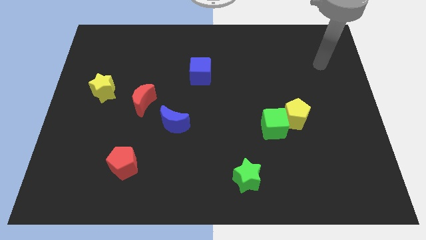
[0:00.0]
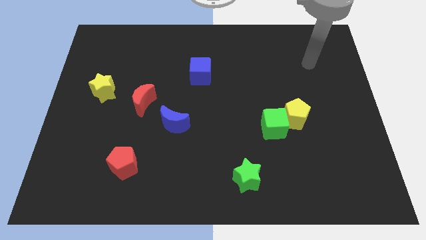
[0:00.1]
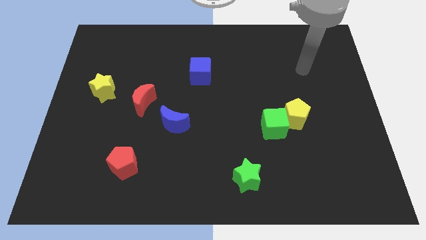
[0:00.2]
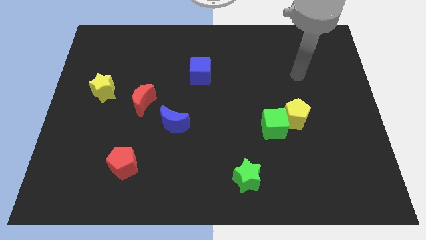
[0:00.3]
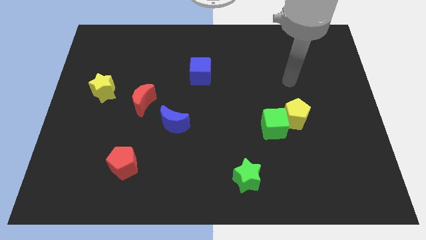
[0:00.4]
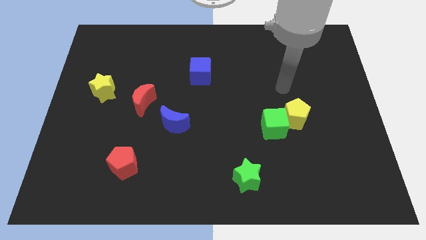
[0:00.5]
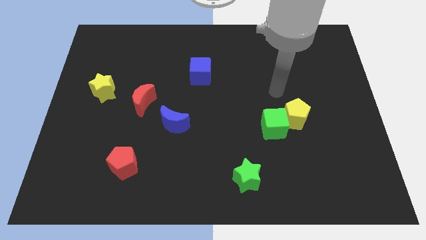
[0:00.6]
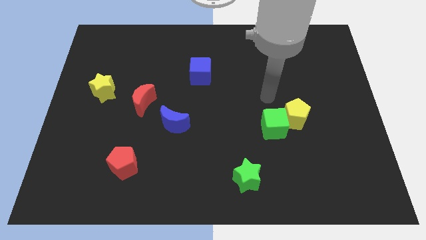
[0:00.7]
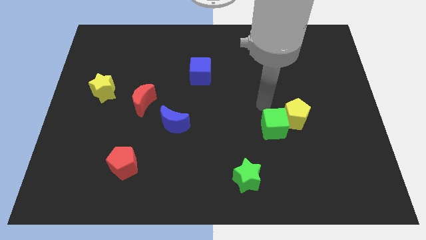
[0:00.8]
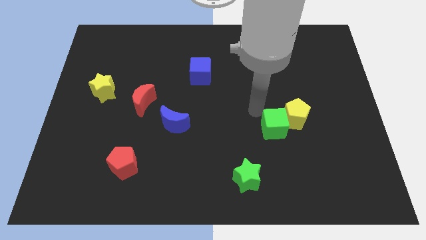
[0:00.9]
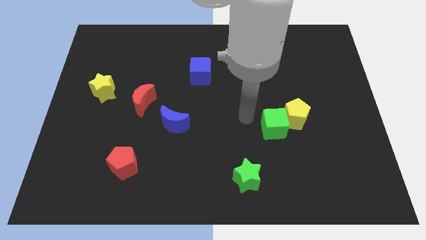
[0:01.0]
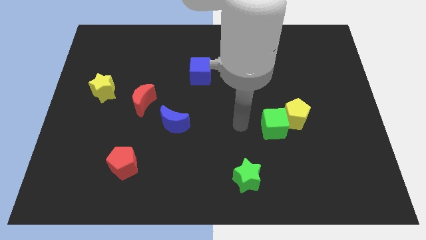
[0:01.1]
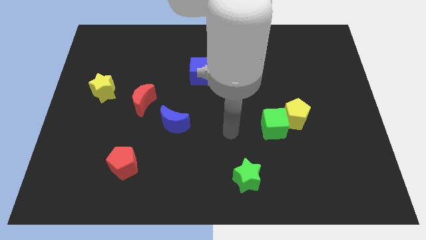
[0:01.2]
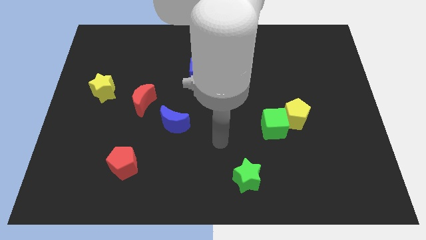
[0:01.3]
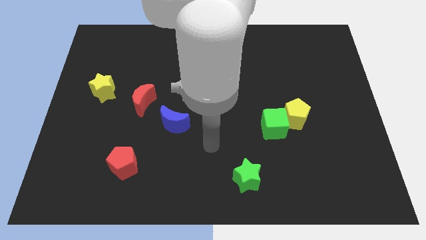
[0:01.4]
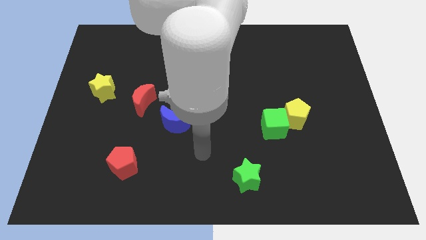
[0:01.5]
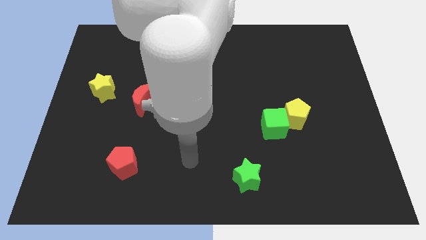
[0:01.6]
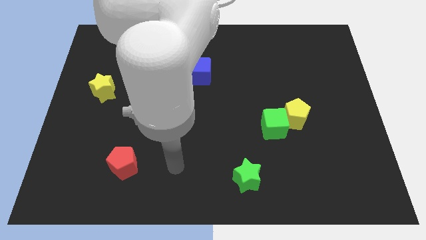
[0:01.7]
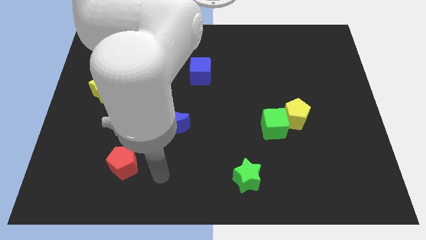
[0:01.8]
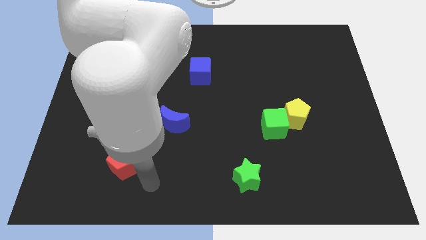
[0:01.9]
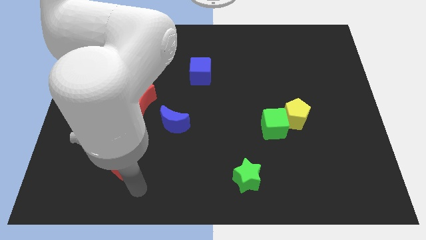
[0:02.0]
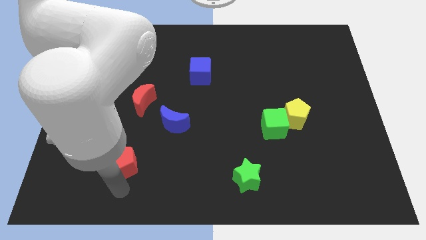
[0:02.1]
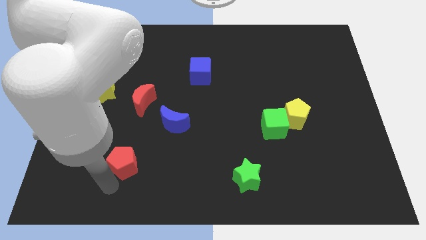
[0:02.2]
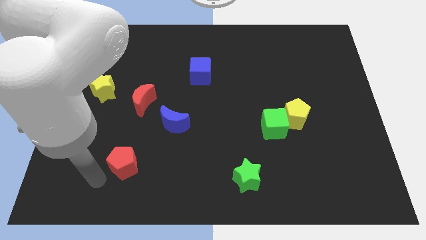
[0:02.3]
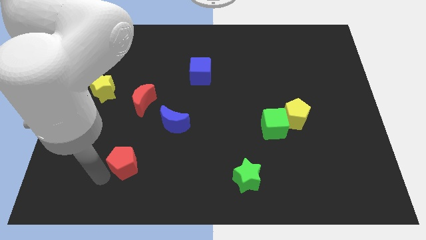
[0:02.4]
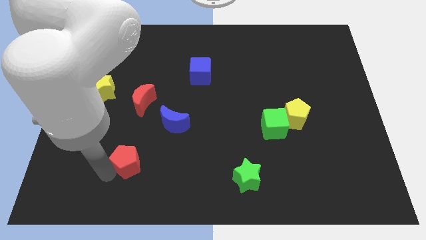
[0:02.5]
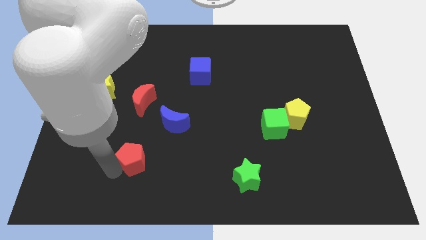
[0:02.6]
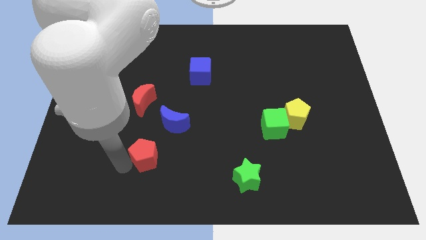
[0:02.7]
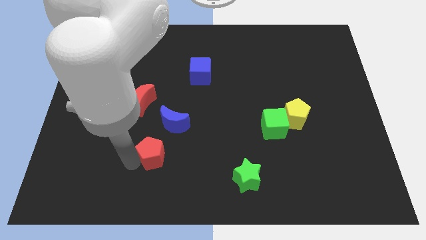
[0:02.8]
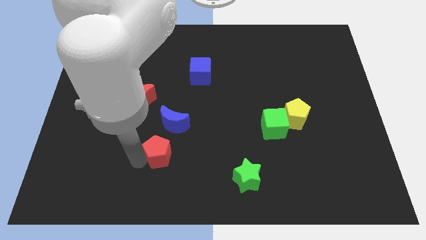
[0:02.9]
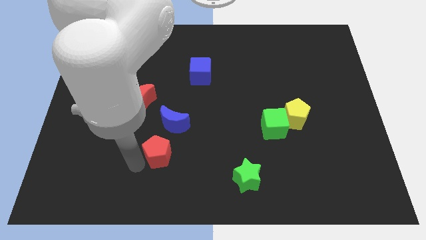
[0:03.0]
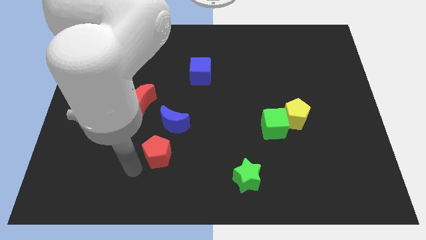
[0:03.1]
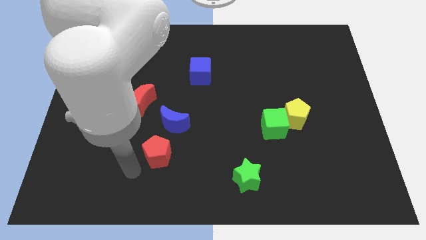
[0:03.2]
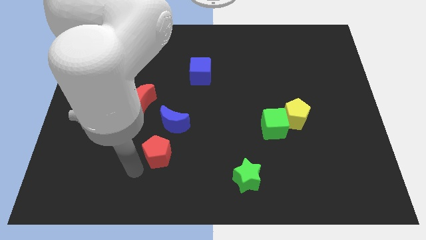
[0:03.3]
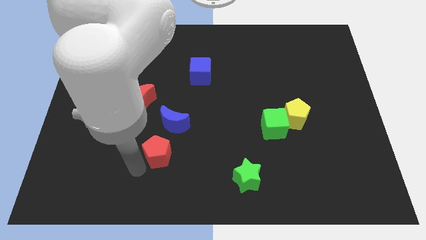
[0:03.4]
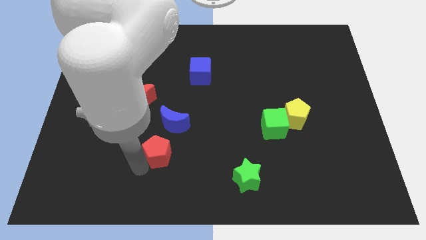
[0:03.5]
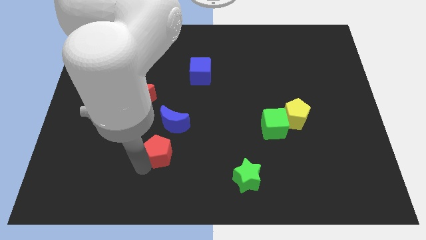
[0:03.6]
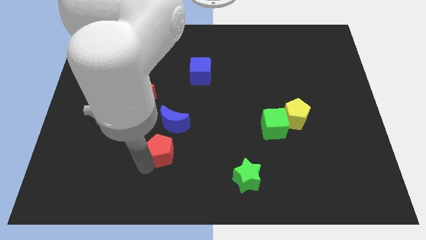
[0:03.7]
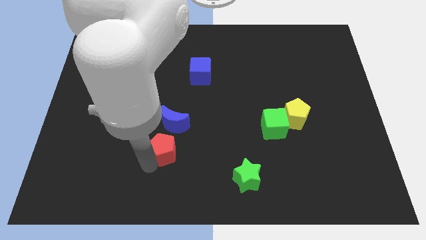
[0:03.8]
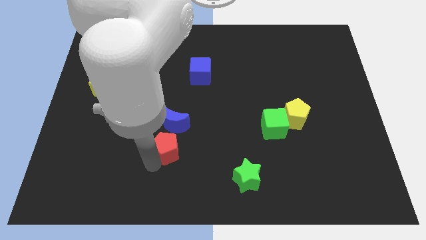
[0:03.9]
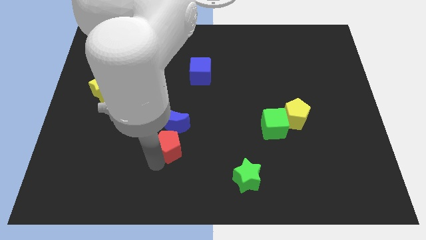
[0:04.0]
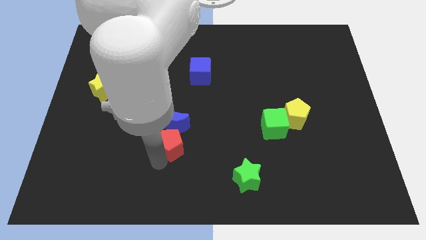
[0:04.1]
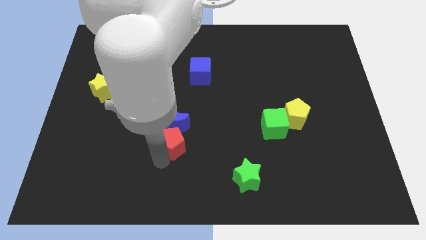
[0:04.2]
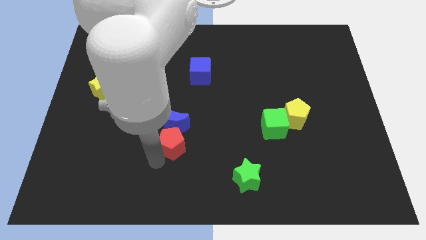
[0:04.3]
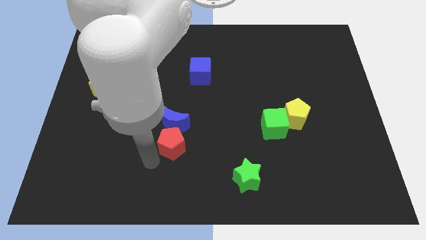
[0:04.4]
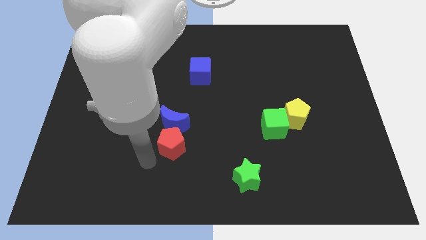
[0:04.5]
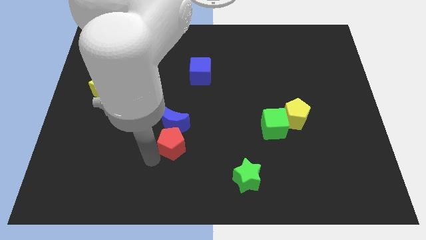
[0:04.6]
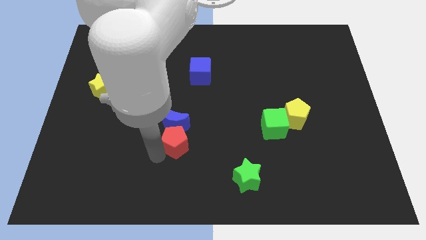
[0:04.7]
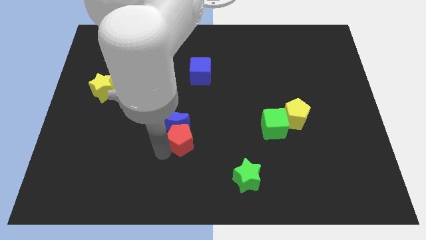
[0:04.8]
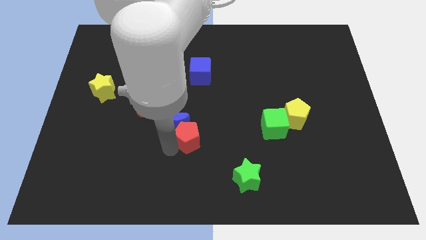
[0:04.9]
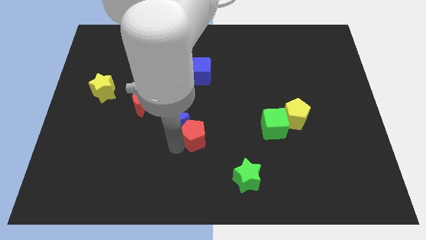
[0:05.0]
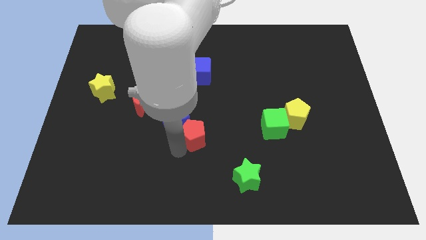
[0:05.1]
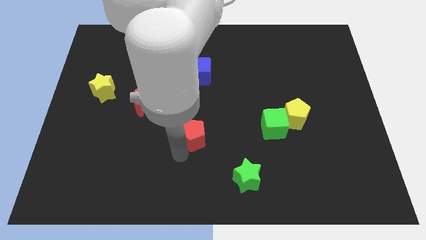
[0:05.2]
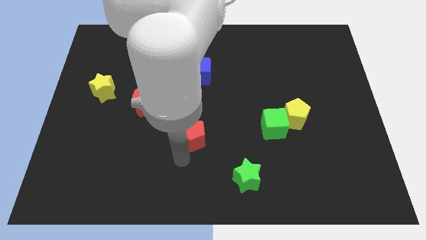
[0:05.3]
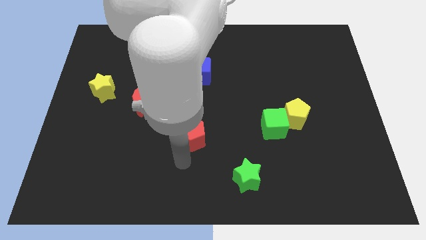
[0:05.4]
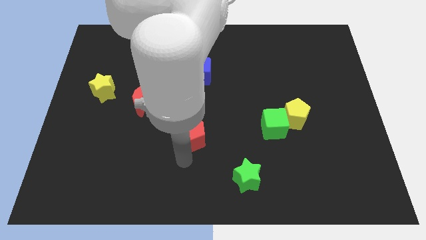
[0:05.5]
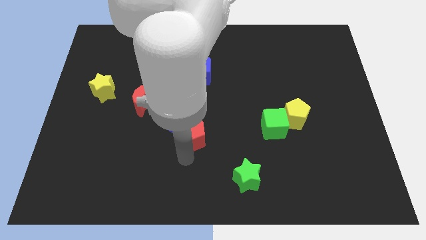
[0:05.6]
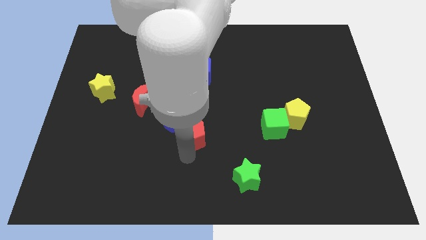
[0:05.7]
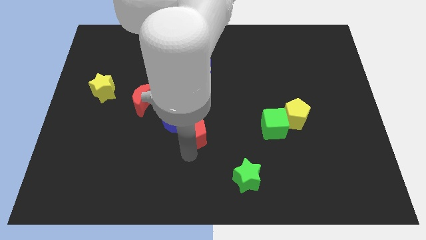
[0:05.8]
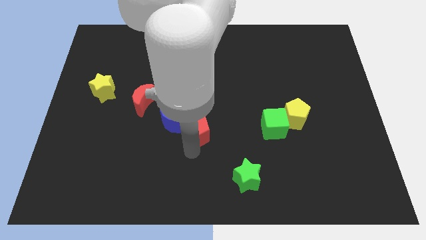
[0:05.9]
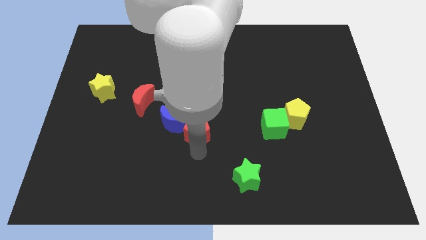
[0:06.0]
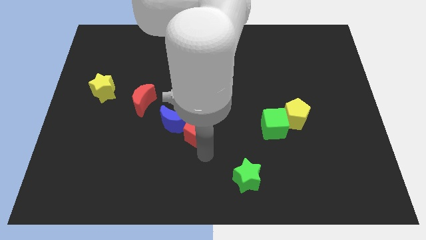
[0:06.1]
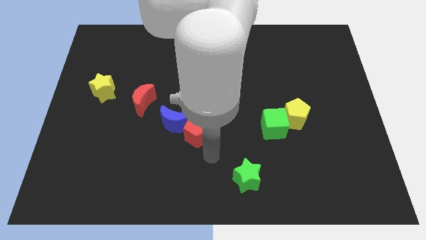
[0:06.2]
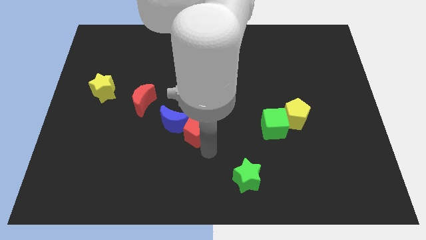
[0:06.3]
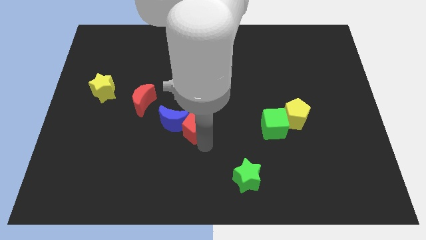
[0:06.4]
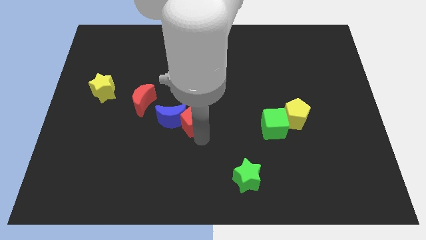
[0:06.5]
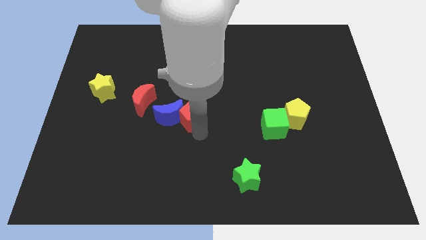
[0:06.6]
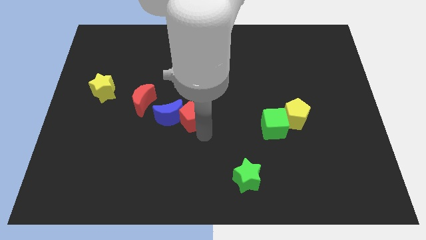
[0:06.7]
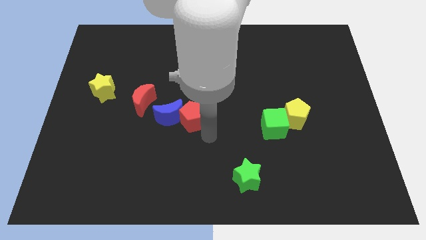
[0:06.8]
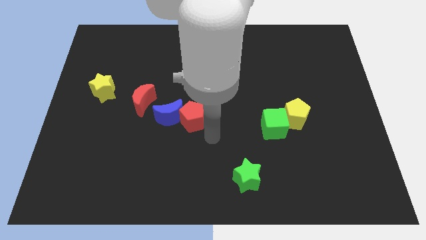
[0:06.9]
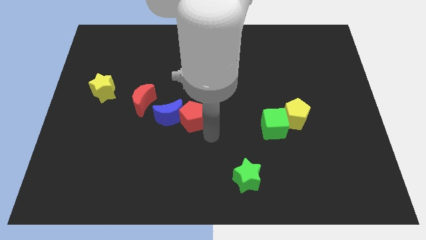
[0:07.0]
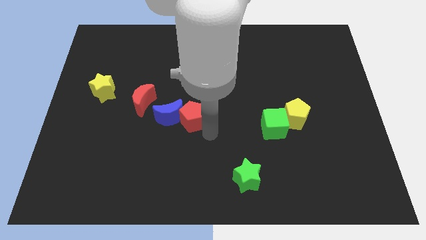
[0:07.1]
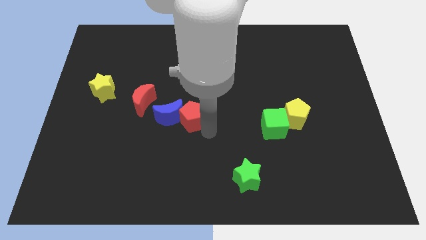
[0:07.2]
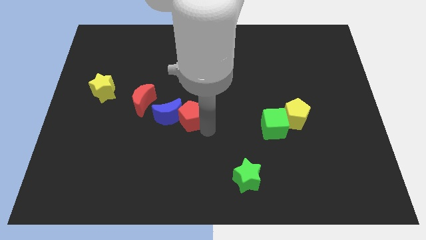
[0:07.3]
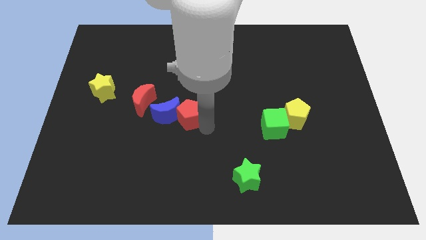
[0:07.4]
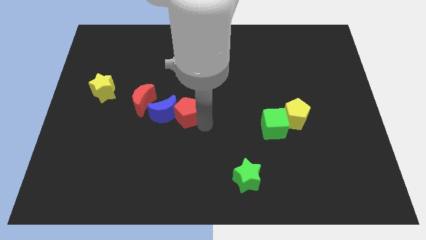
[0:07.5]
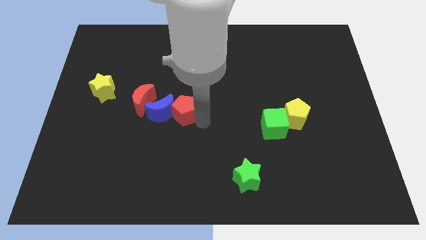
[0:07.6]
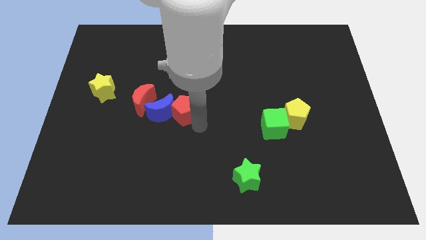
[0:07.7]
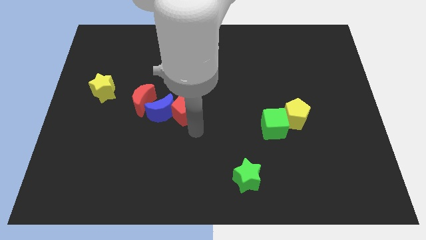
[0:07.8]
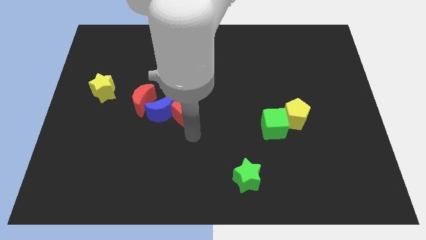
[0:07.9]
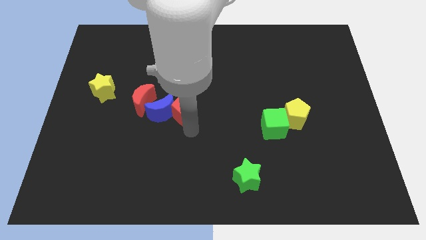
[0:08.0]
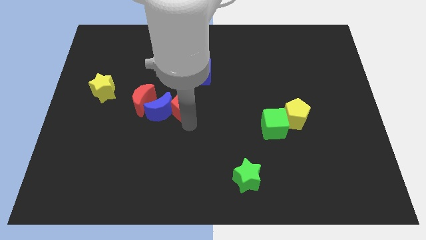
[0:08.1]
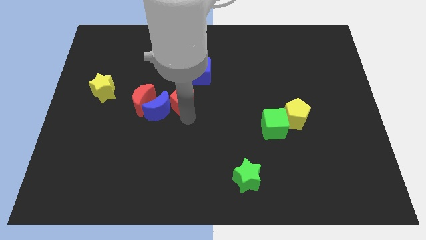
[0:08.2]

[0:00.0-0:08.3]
push the red pentagon to the bottom left of the blue cube
